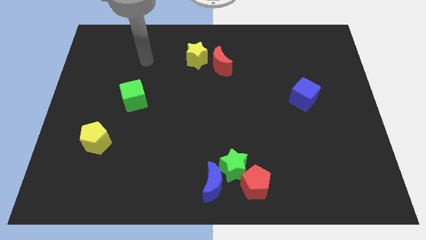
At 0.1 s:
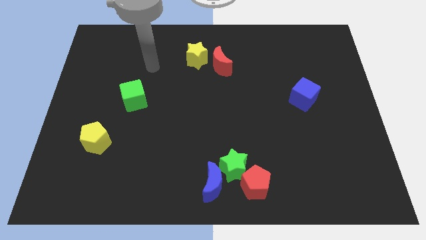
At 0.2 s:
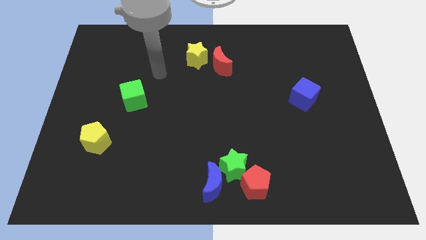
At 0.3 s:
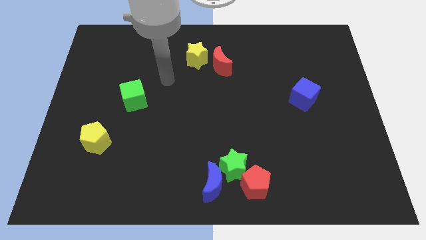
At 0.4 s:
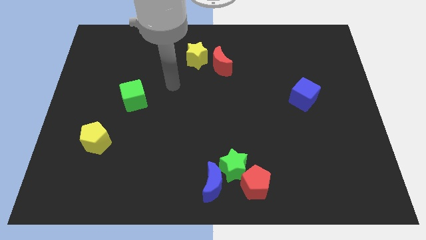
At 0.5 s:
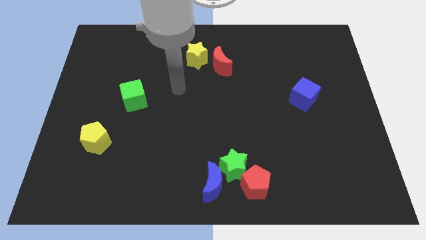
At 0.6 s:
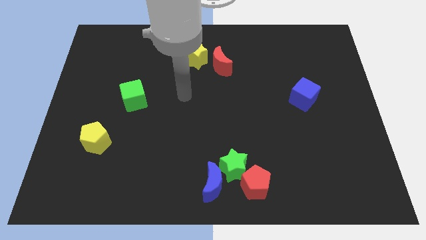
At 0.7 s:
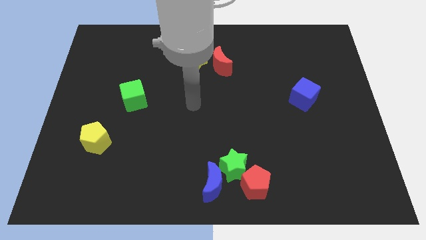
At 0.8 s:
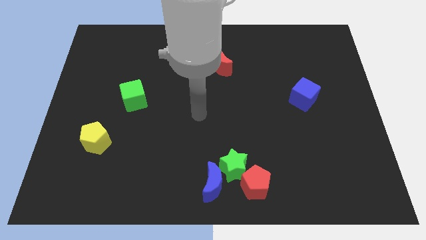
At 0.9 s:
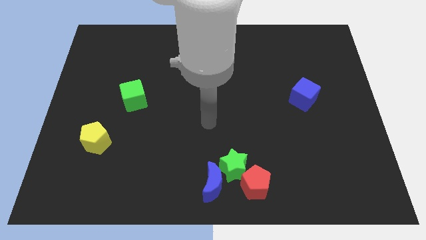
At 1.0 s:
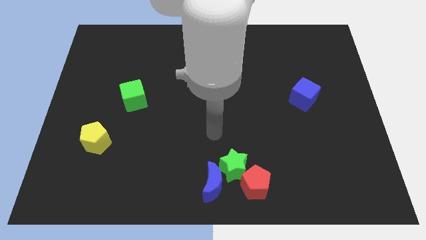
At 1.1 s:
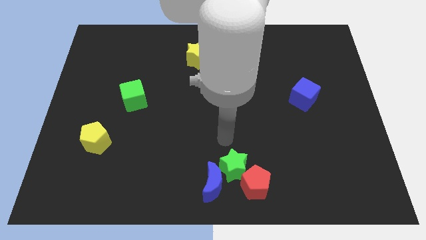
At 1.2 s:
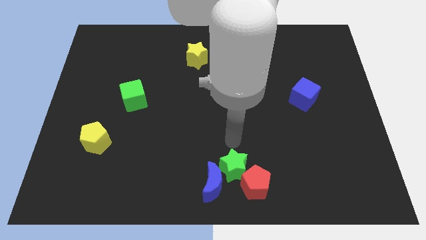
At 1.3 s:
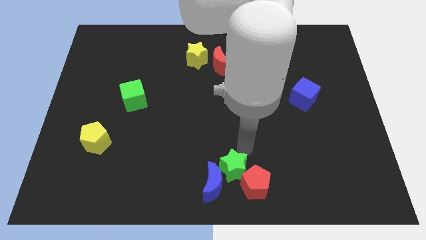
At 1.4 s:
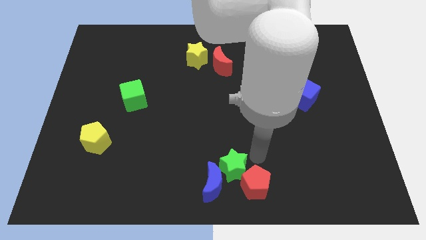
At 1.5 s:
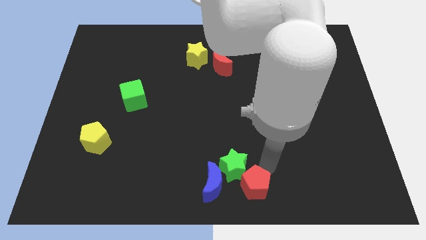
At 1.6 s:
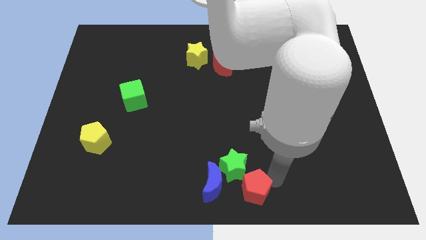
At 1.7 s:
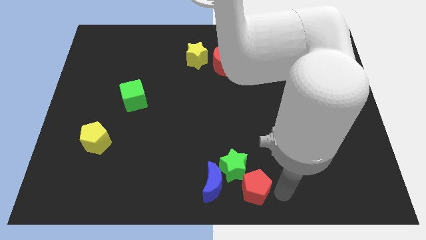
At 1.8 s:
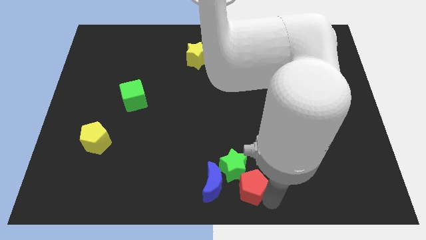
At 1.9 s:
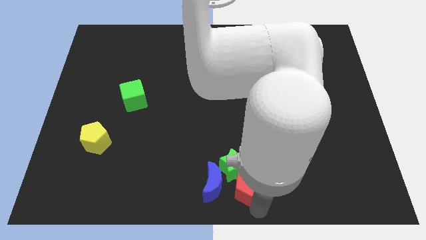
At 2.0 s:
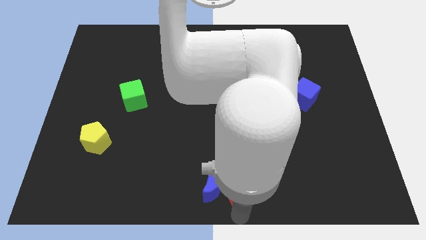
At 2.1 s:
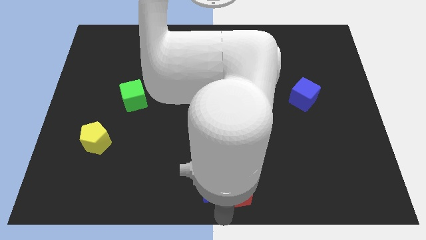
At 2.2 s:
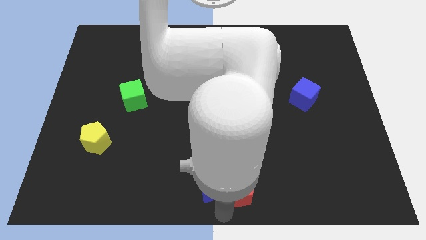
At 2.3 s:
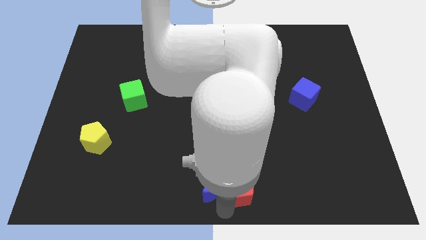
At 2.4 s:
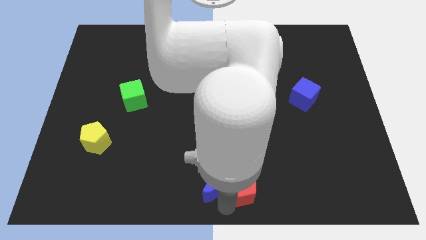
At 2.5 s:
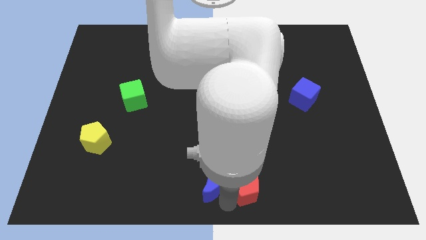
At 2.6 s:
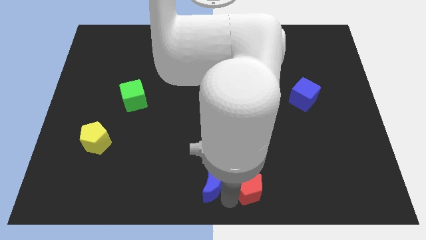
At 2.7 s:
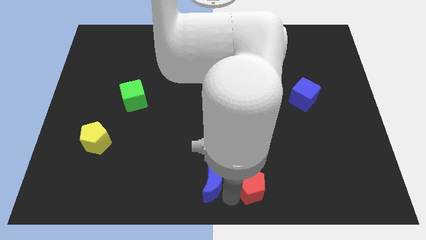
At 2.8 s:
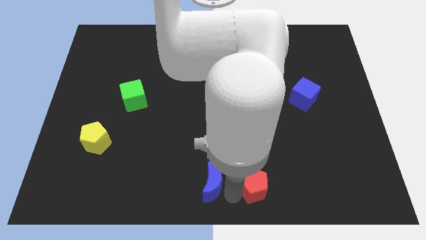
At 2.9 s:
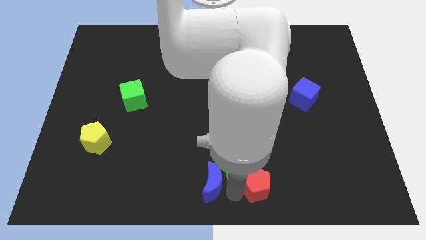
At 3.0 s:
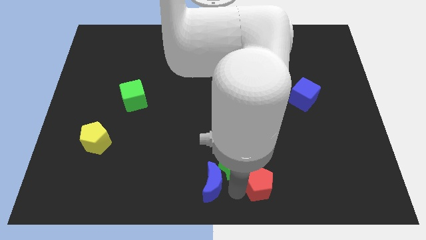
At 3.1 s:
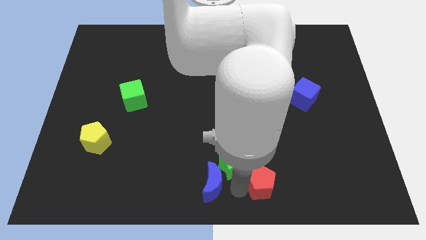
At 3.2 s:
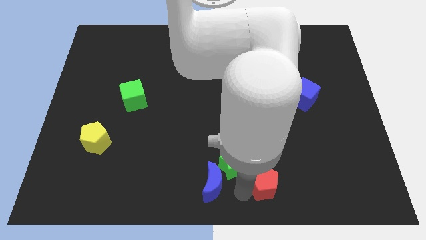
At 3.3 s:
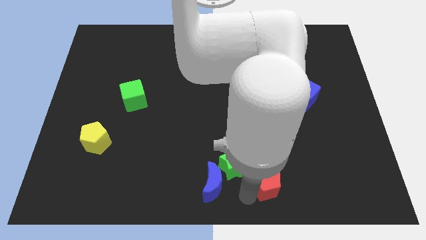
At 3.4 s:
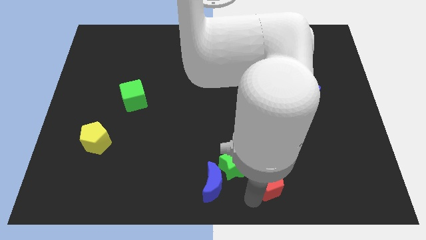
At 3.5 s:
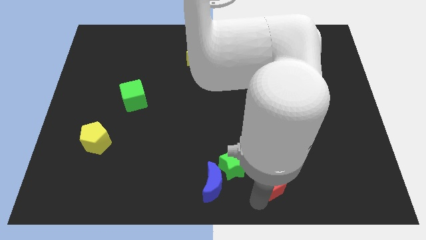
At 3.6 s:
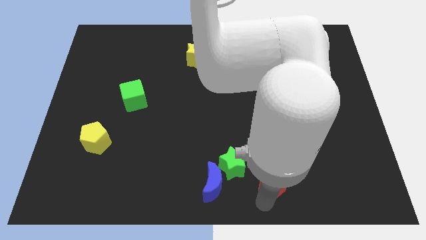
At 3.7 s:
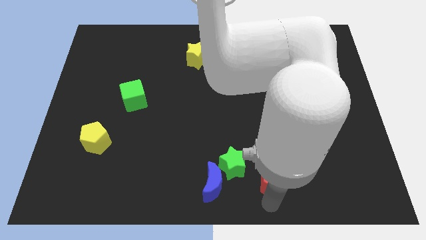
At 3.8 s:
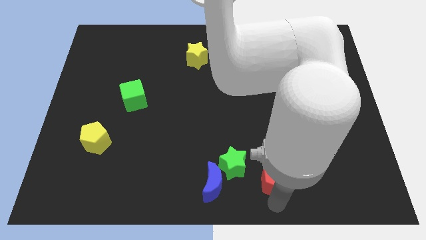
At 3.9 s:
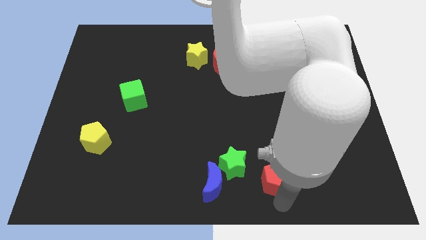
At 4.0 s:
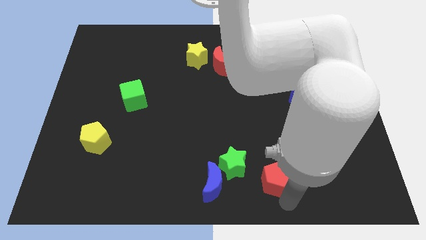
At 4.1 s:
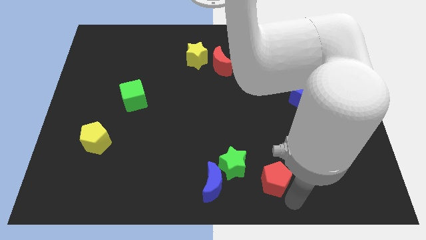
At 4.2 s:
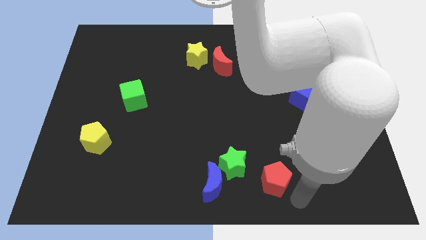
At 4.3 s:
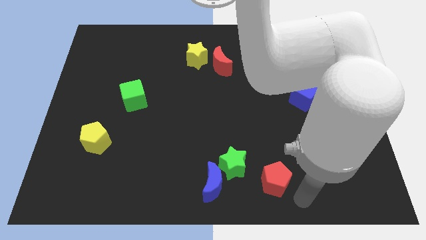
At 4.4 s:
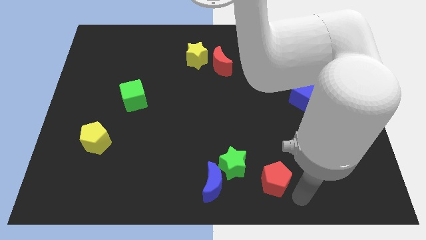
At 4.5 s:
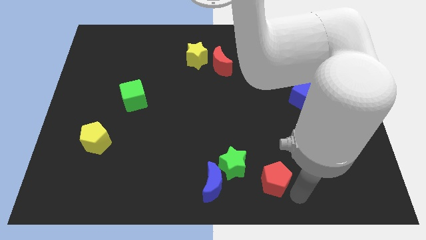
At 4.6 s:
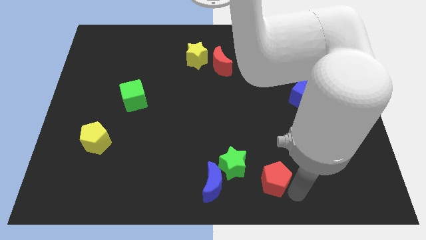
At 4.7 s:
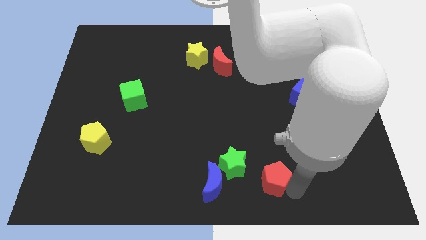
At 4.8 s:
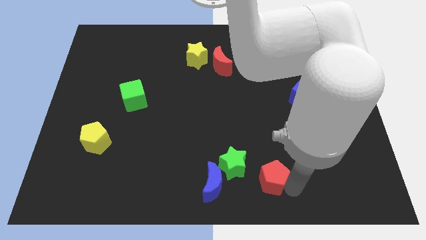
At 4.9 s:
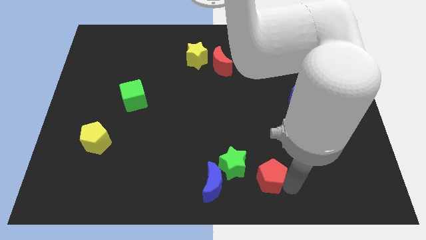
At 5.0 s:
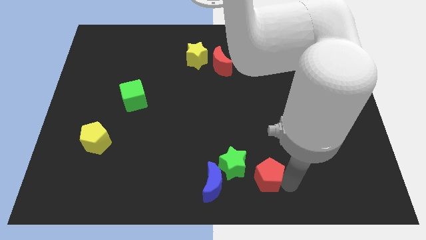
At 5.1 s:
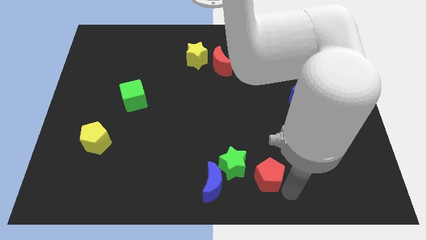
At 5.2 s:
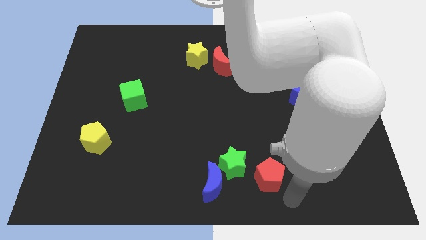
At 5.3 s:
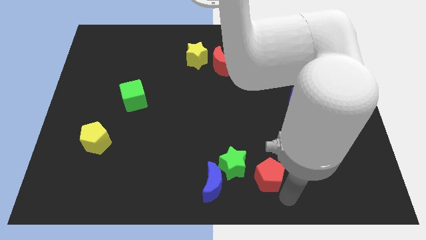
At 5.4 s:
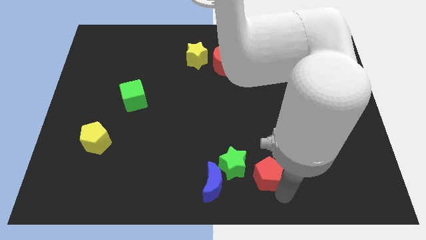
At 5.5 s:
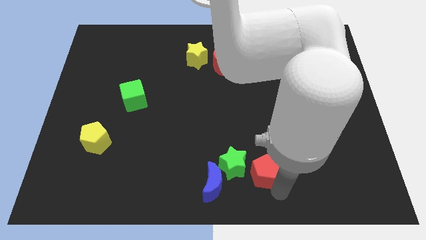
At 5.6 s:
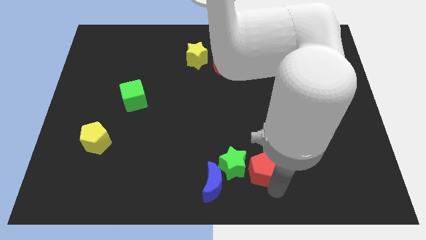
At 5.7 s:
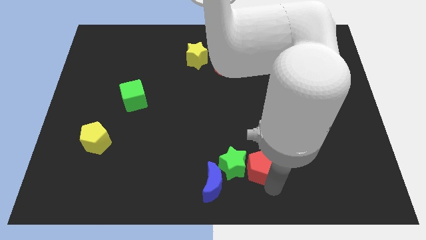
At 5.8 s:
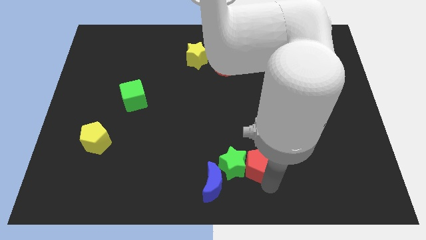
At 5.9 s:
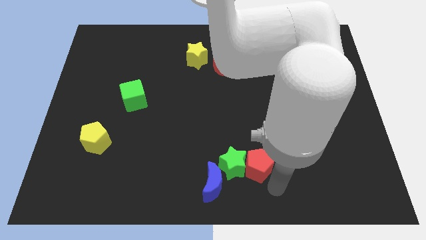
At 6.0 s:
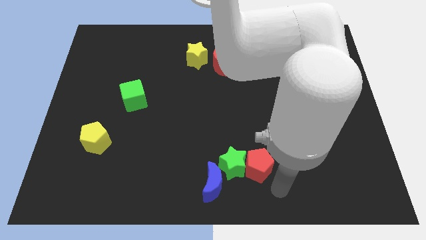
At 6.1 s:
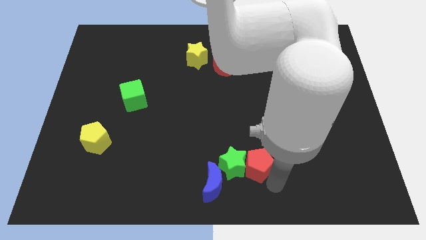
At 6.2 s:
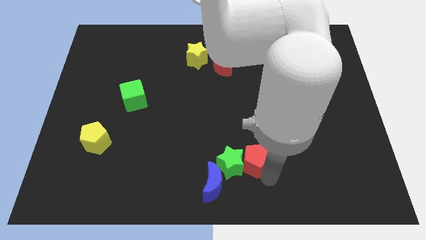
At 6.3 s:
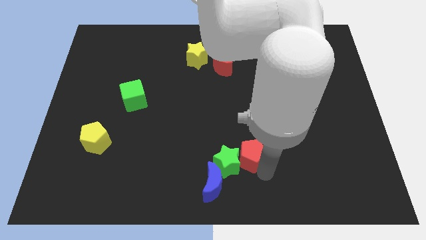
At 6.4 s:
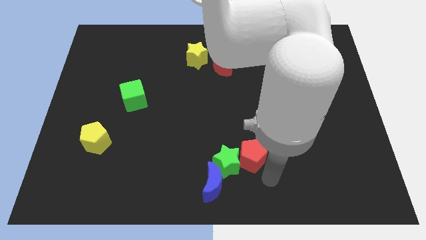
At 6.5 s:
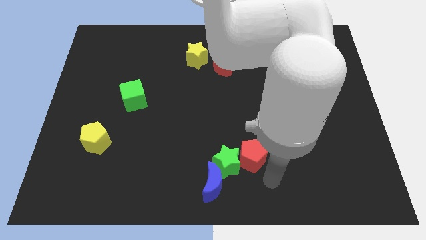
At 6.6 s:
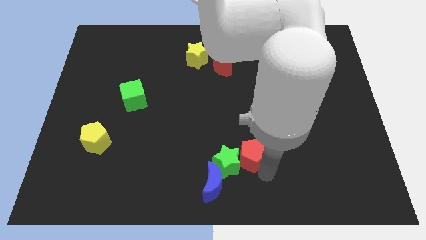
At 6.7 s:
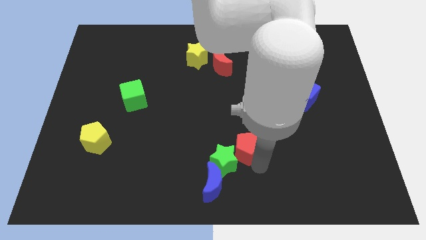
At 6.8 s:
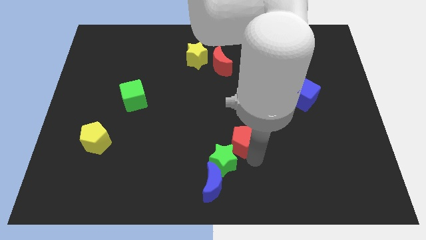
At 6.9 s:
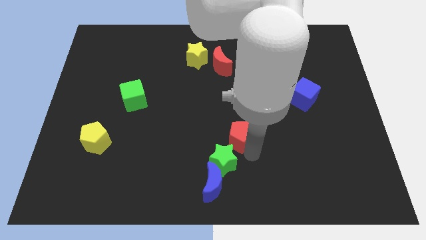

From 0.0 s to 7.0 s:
push the red pentagon to the middle

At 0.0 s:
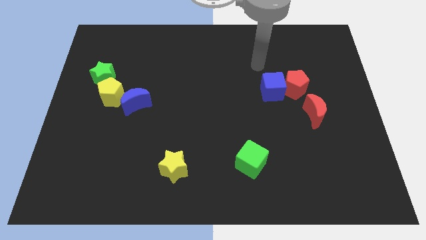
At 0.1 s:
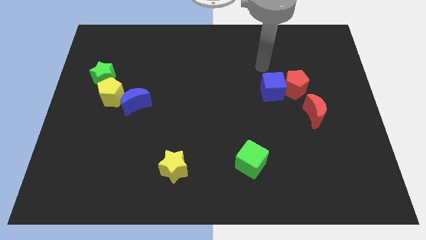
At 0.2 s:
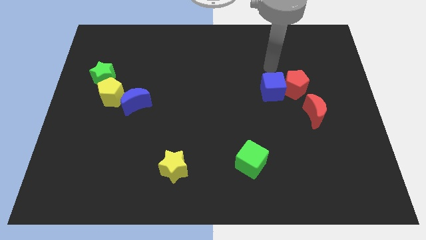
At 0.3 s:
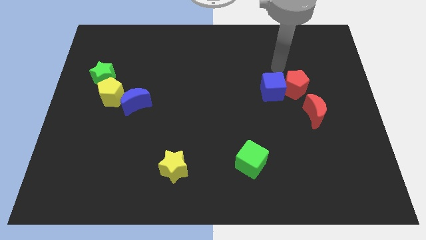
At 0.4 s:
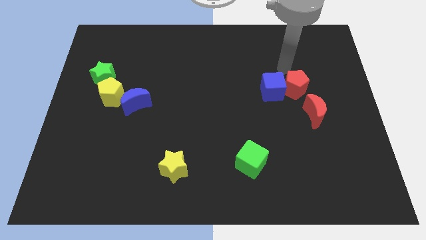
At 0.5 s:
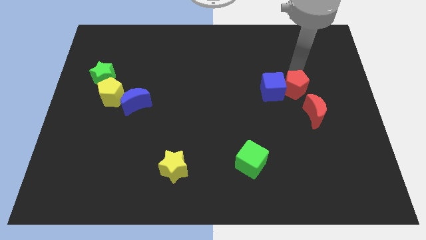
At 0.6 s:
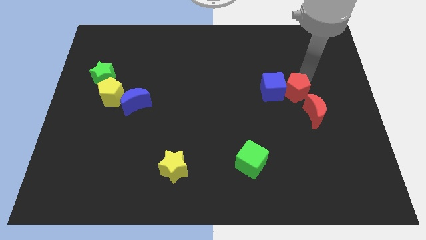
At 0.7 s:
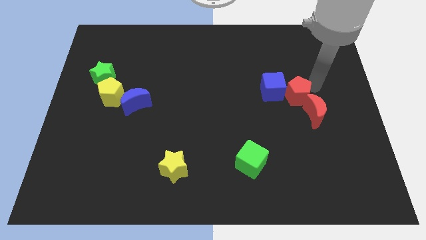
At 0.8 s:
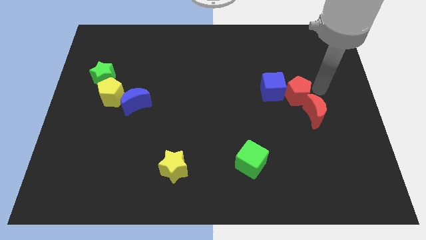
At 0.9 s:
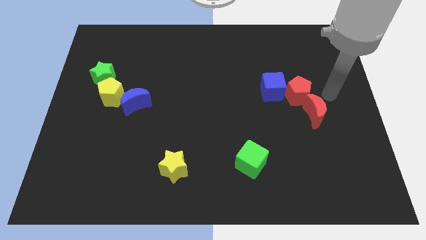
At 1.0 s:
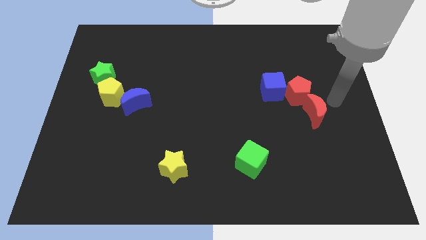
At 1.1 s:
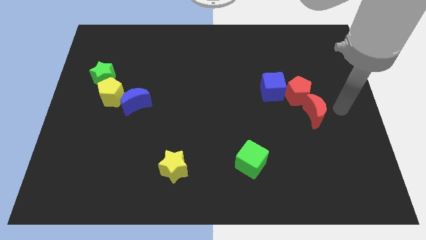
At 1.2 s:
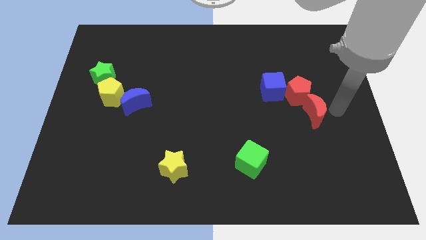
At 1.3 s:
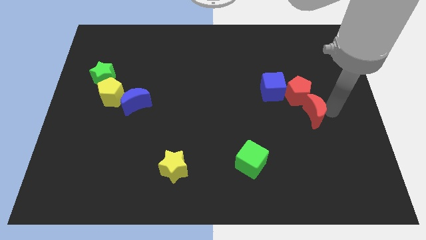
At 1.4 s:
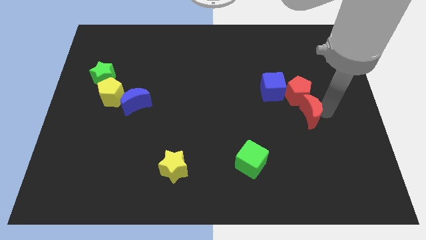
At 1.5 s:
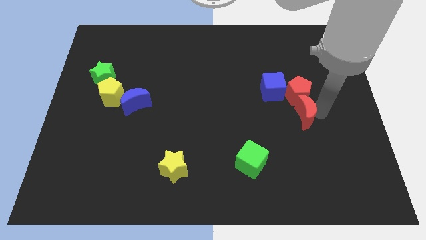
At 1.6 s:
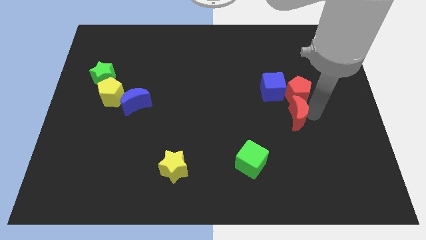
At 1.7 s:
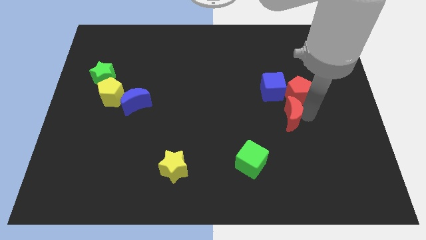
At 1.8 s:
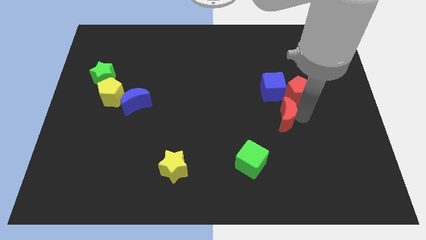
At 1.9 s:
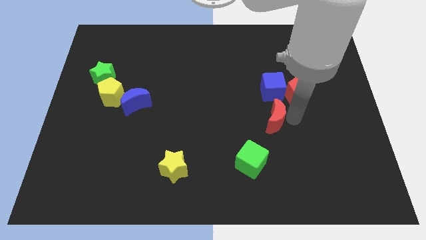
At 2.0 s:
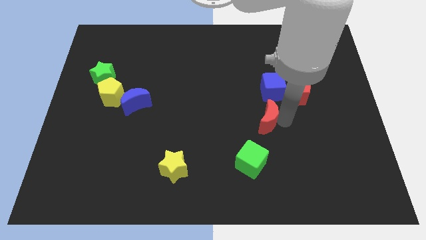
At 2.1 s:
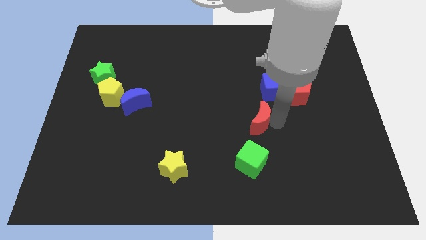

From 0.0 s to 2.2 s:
put the red moon to the center
